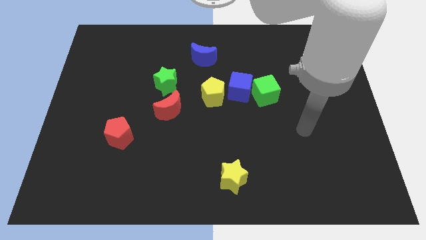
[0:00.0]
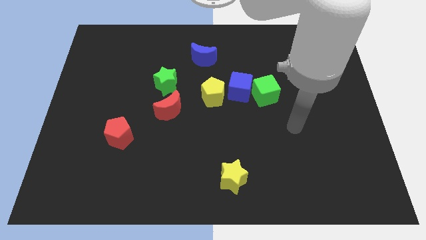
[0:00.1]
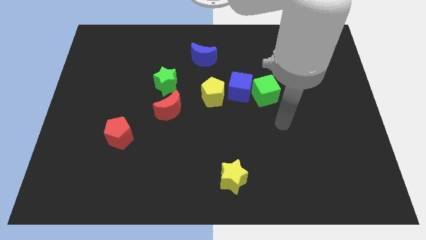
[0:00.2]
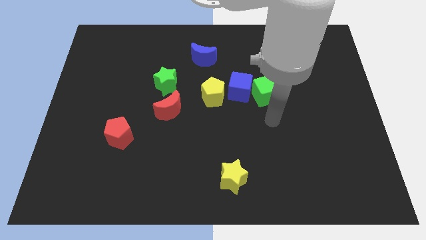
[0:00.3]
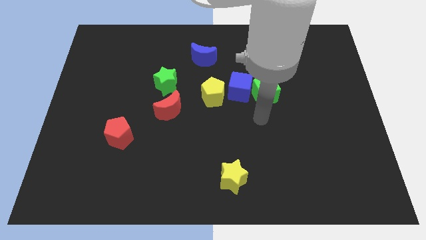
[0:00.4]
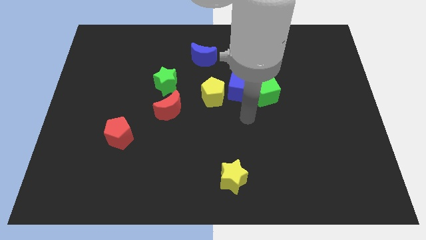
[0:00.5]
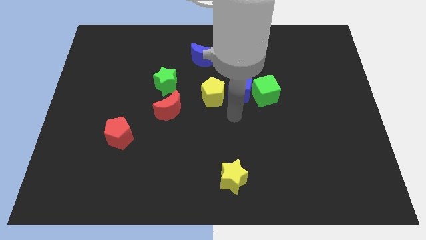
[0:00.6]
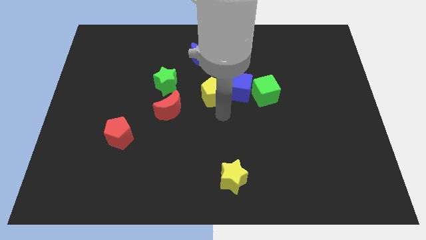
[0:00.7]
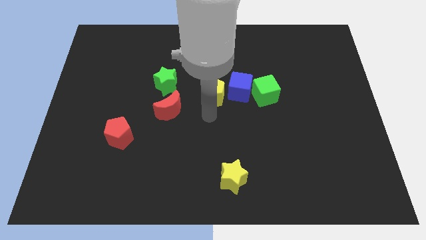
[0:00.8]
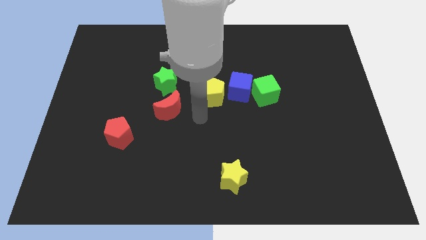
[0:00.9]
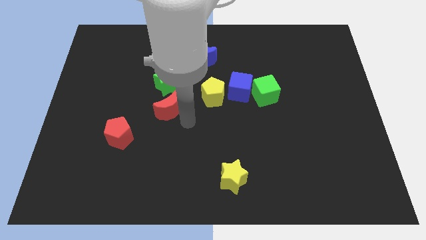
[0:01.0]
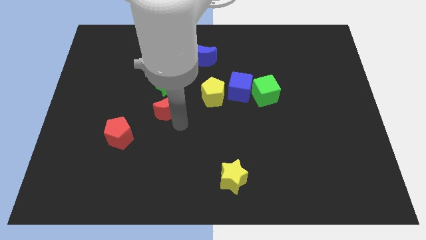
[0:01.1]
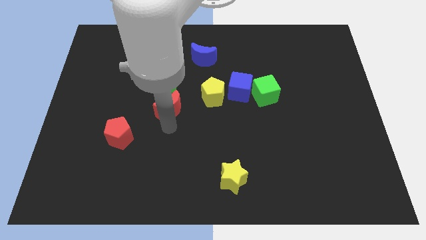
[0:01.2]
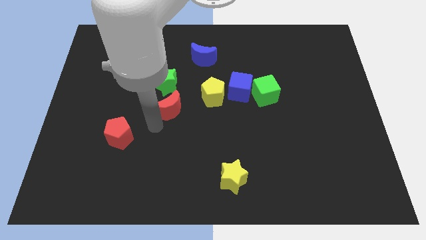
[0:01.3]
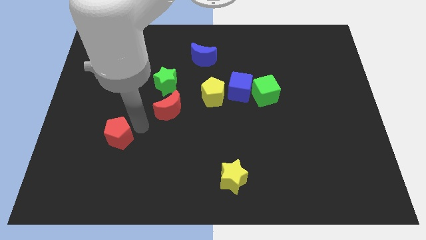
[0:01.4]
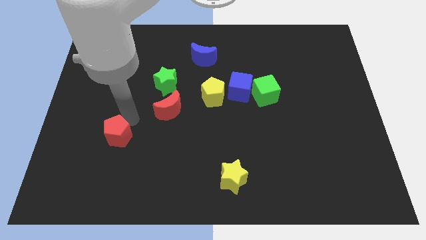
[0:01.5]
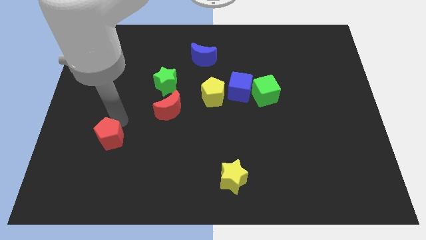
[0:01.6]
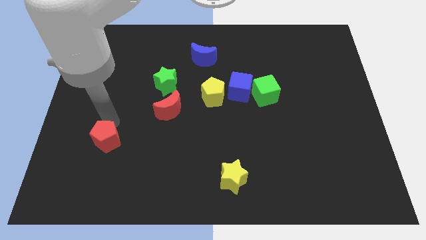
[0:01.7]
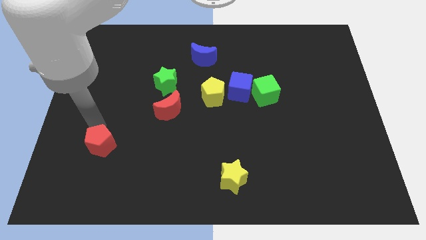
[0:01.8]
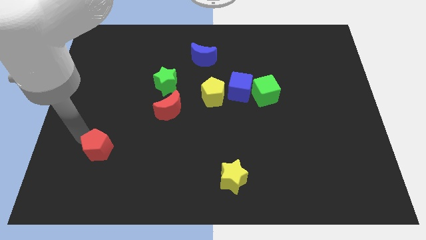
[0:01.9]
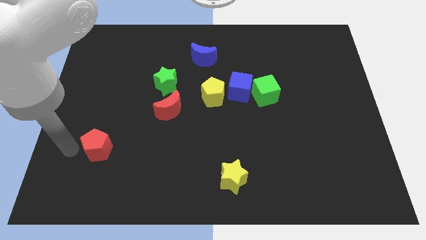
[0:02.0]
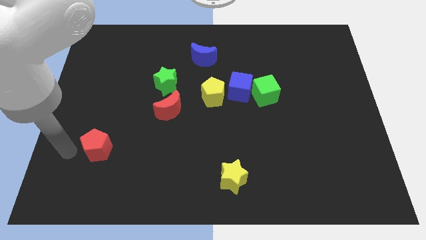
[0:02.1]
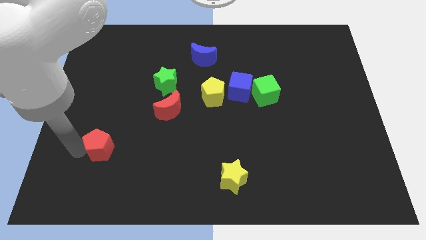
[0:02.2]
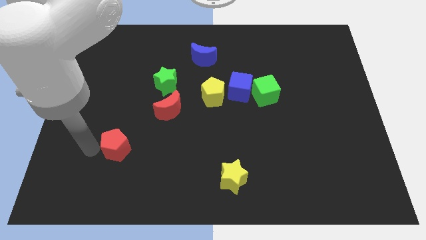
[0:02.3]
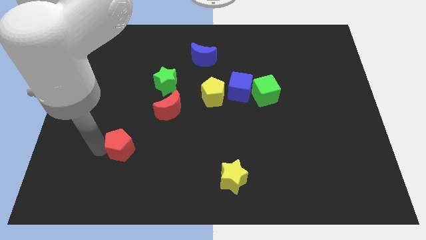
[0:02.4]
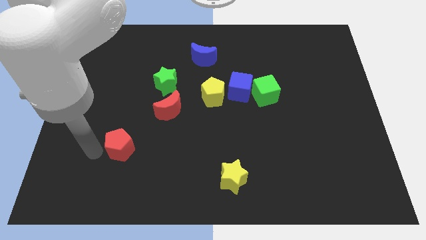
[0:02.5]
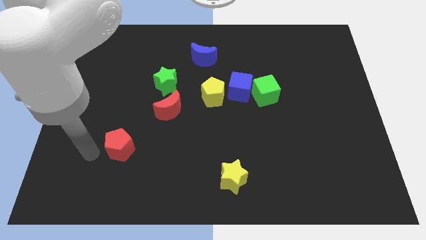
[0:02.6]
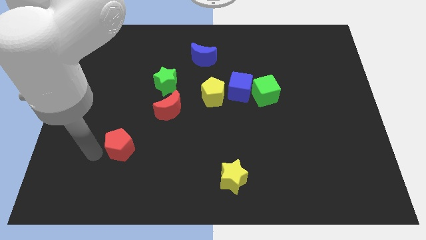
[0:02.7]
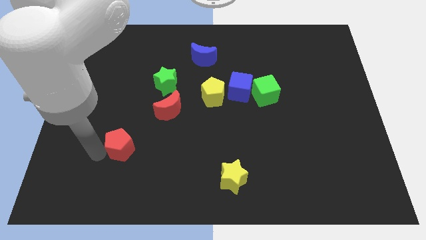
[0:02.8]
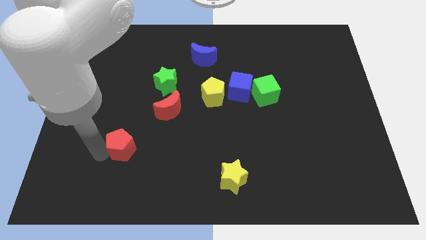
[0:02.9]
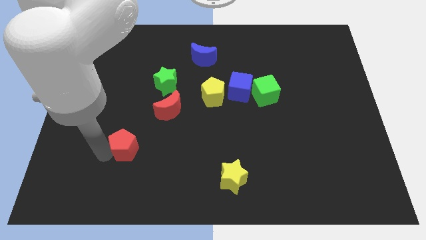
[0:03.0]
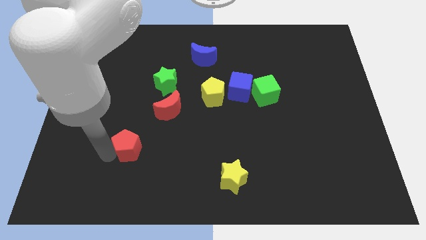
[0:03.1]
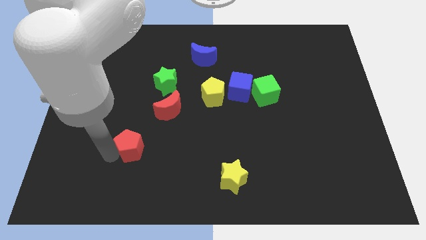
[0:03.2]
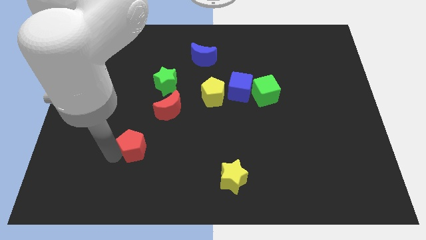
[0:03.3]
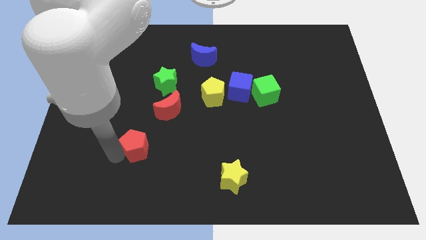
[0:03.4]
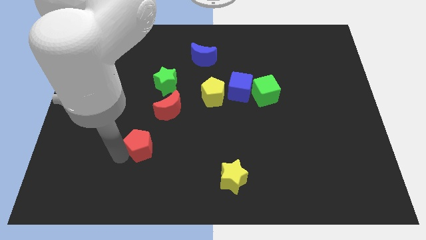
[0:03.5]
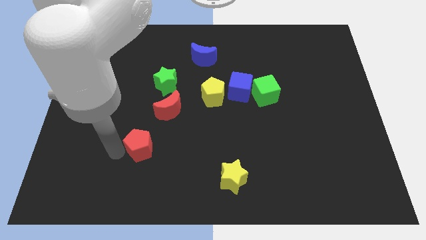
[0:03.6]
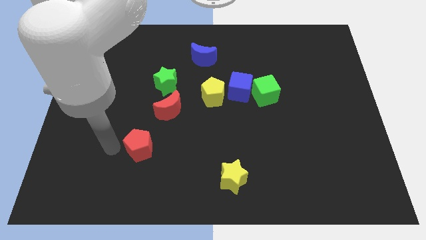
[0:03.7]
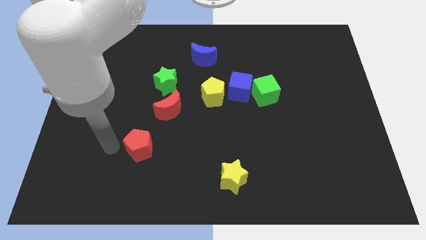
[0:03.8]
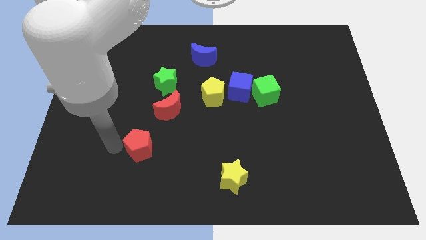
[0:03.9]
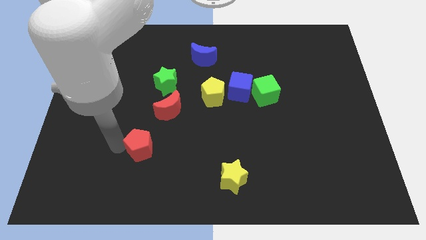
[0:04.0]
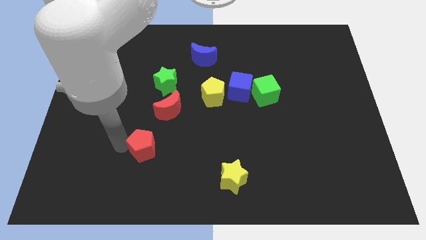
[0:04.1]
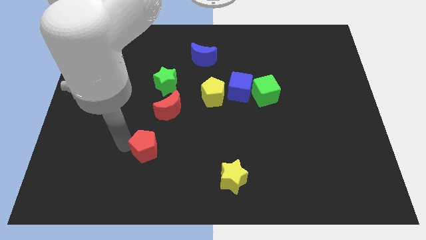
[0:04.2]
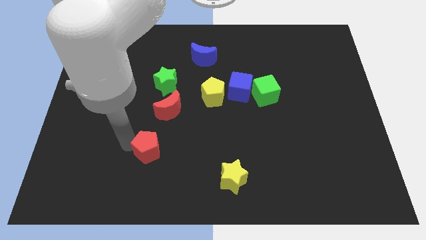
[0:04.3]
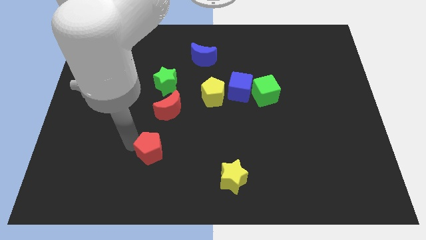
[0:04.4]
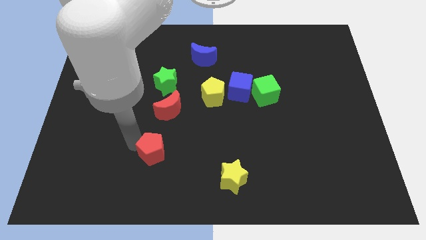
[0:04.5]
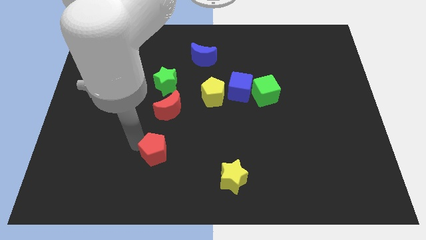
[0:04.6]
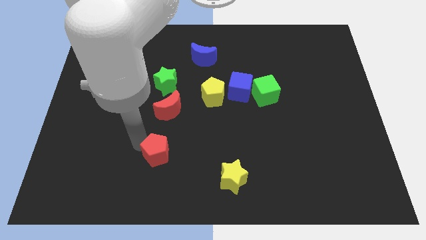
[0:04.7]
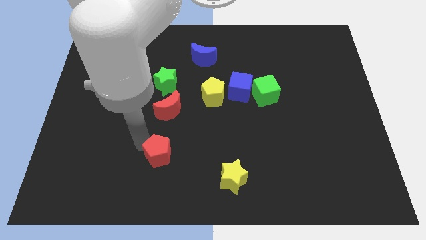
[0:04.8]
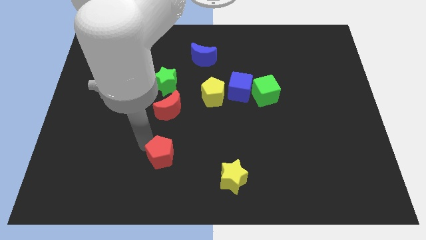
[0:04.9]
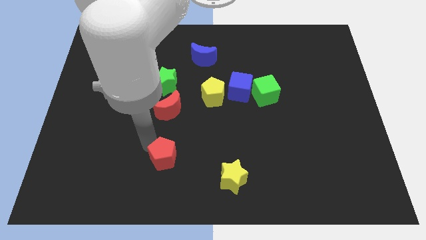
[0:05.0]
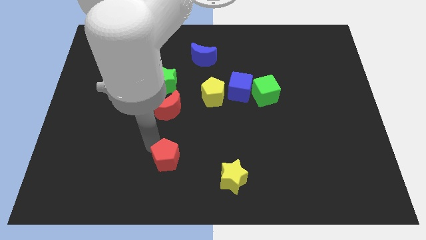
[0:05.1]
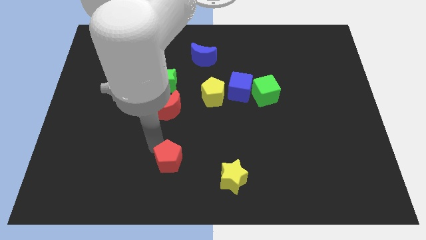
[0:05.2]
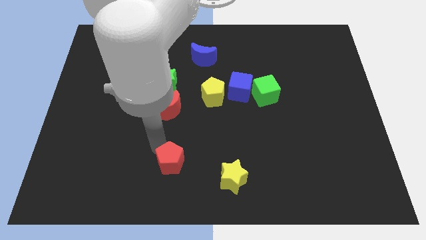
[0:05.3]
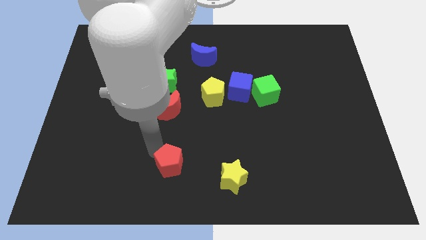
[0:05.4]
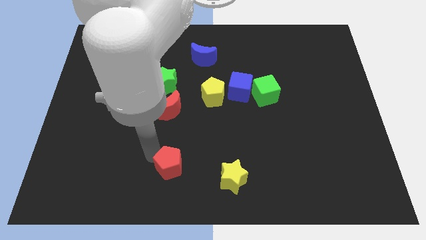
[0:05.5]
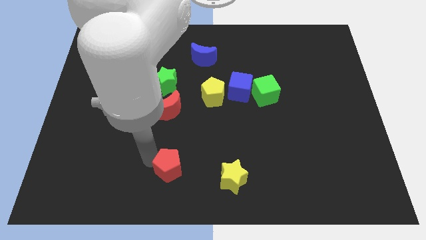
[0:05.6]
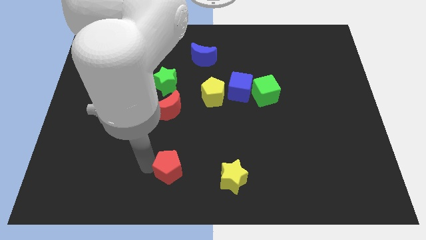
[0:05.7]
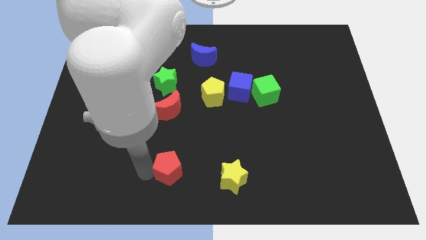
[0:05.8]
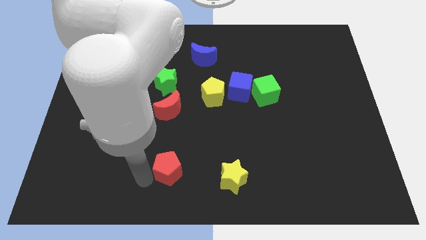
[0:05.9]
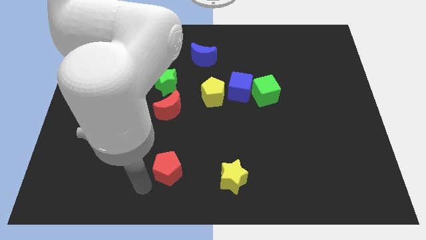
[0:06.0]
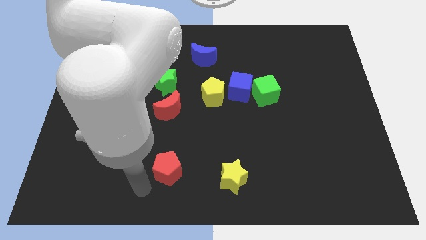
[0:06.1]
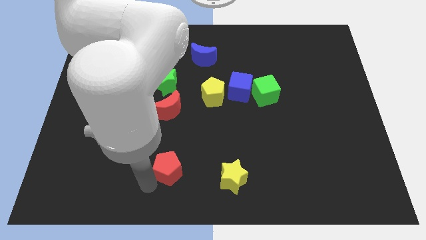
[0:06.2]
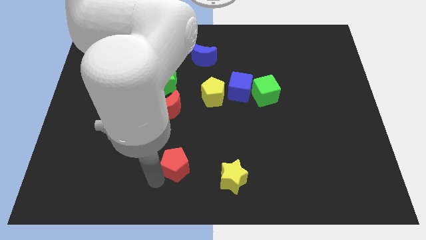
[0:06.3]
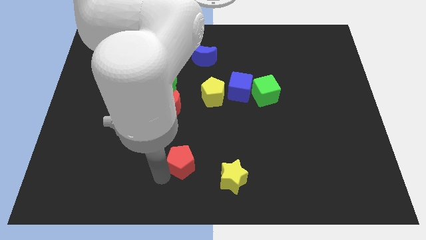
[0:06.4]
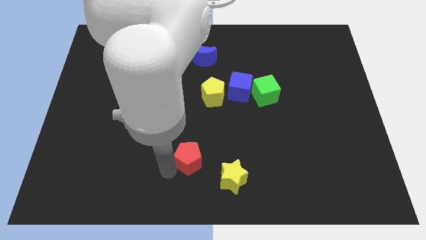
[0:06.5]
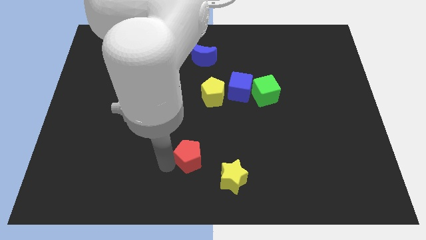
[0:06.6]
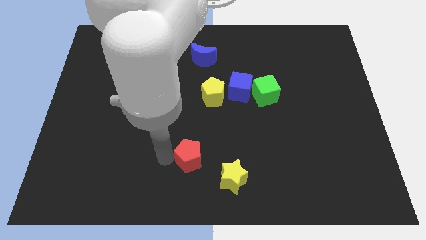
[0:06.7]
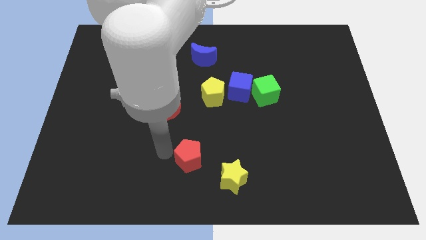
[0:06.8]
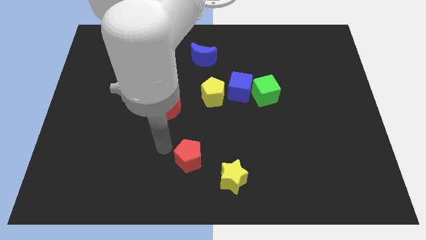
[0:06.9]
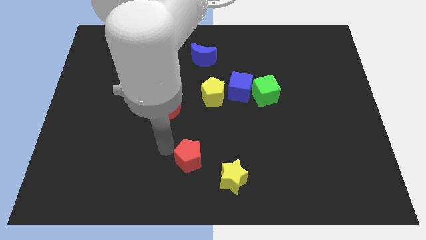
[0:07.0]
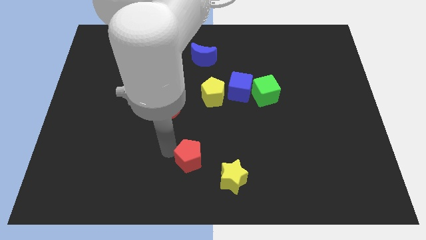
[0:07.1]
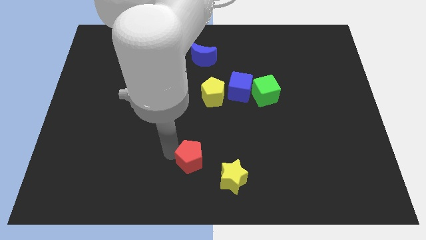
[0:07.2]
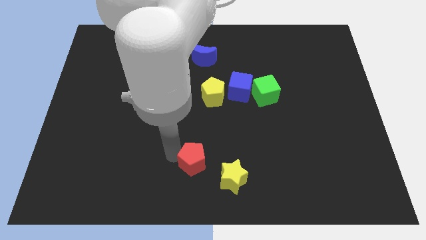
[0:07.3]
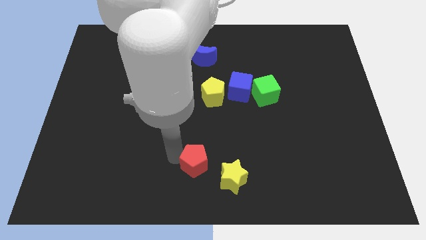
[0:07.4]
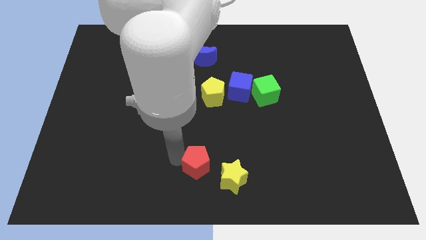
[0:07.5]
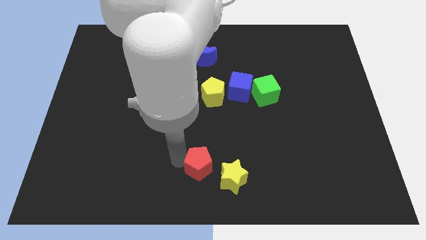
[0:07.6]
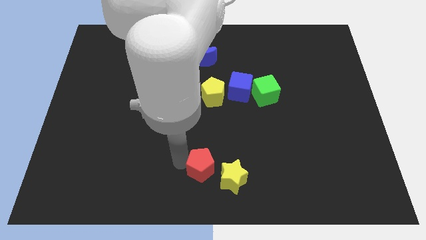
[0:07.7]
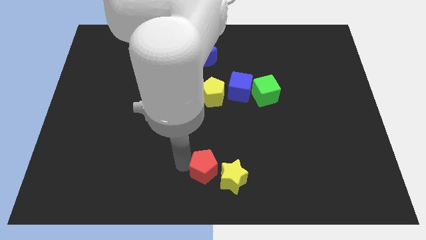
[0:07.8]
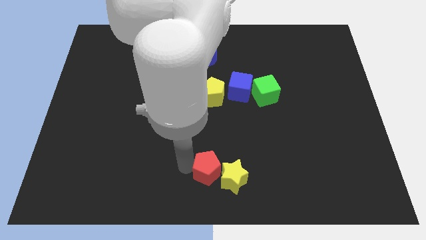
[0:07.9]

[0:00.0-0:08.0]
push the red pentagon next to the yellow star

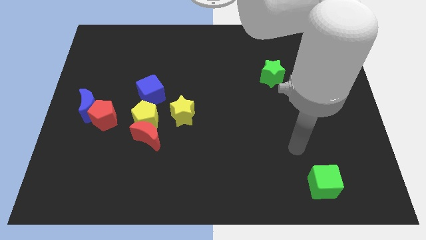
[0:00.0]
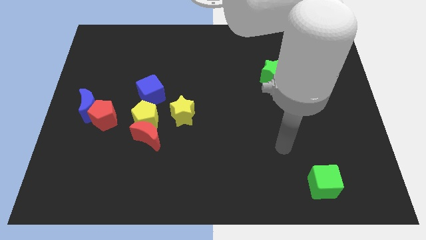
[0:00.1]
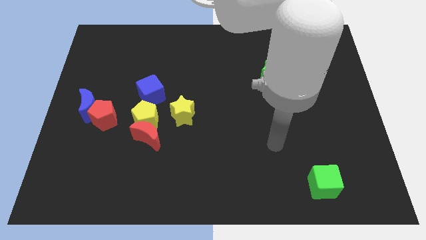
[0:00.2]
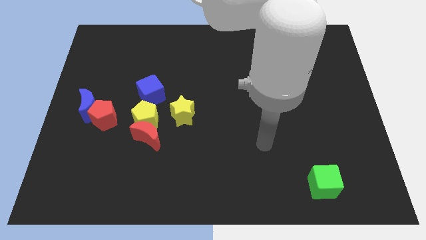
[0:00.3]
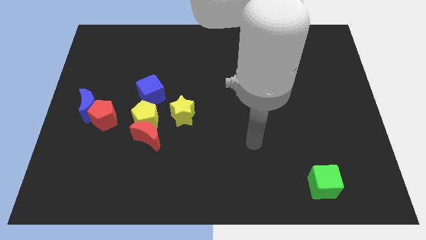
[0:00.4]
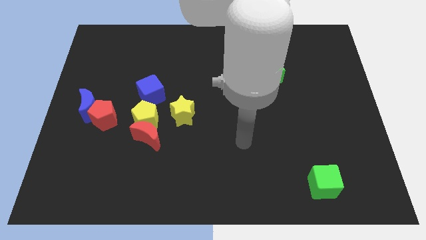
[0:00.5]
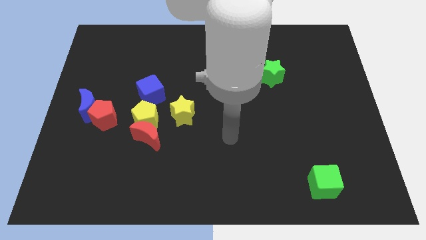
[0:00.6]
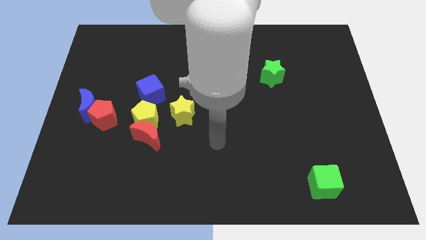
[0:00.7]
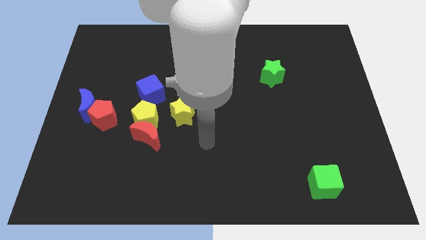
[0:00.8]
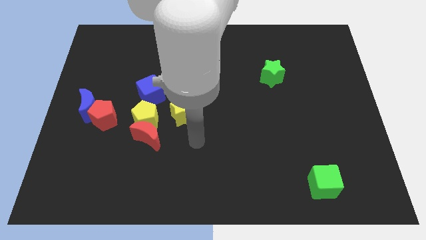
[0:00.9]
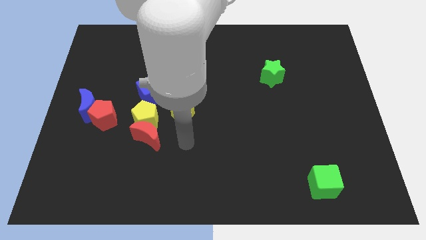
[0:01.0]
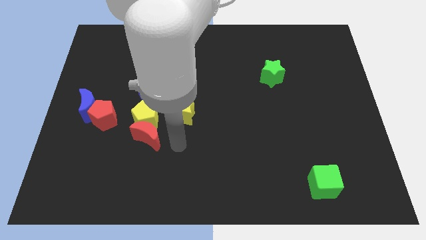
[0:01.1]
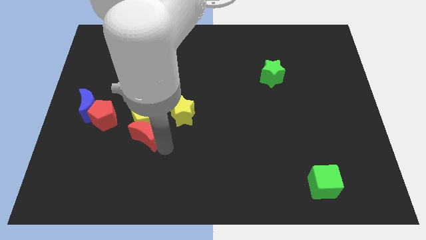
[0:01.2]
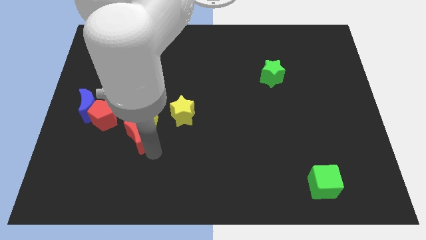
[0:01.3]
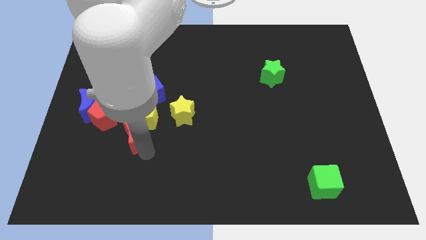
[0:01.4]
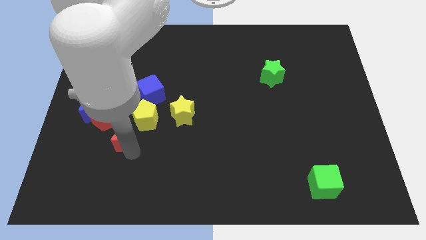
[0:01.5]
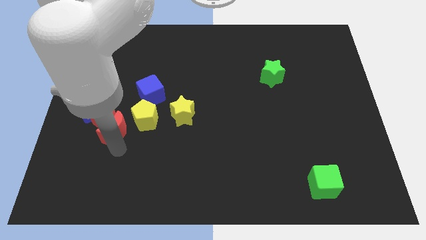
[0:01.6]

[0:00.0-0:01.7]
put the red pentagon to the red moon
